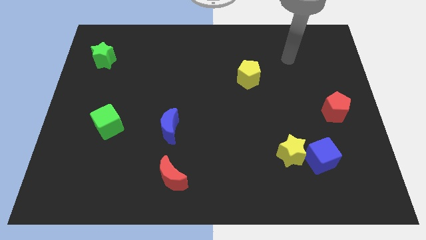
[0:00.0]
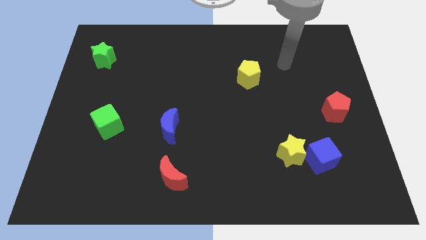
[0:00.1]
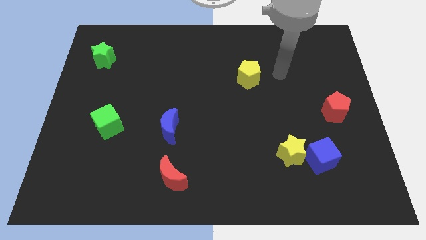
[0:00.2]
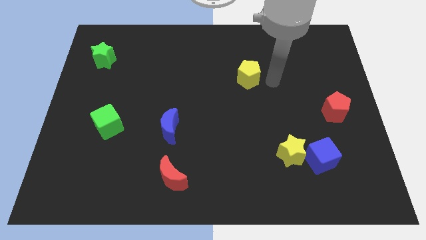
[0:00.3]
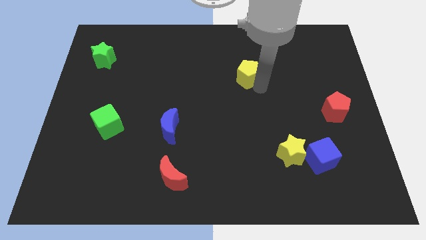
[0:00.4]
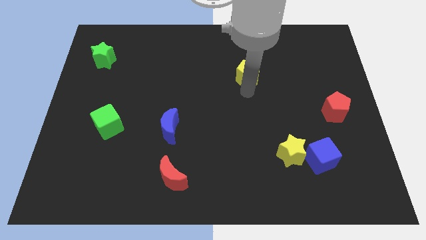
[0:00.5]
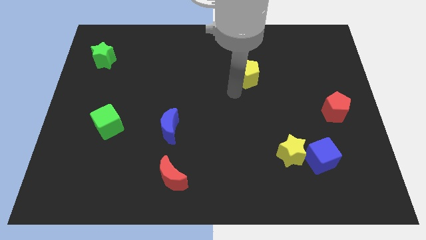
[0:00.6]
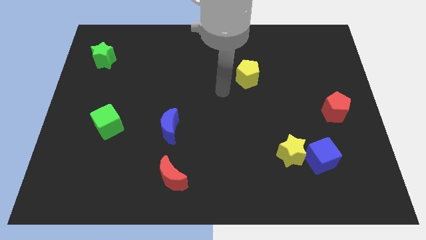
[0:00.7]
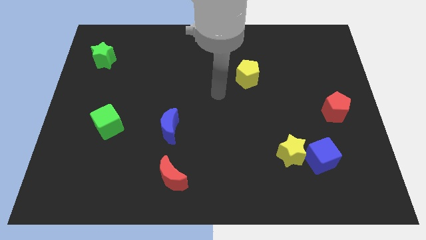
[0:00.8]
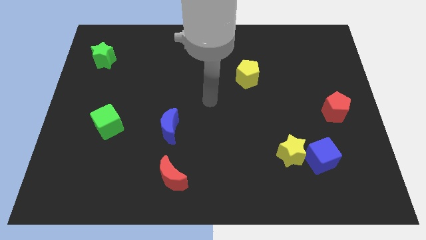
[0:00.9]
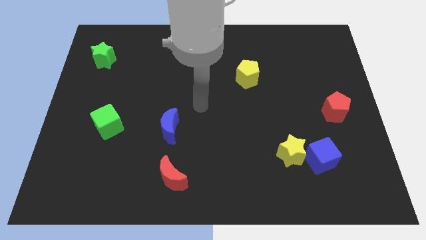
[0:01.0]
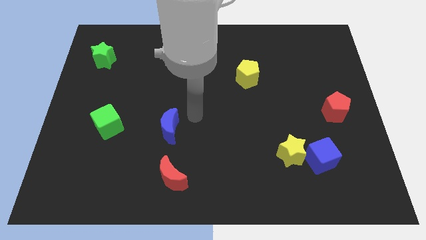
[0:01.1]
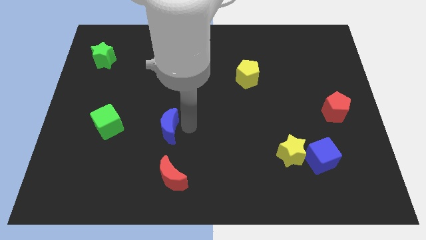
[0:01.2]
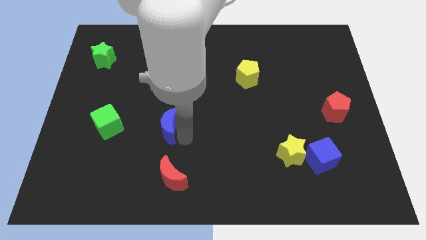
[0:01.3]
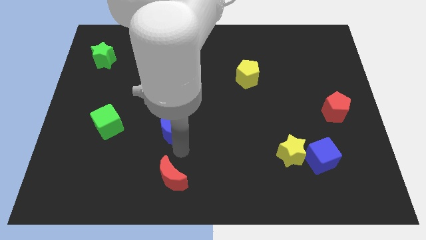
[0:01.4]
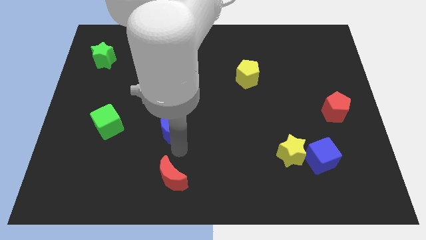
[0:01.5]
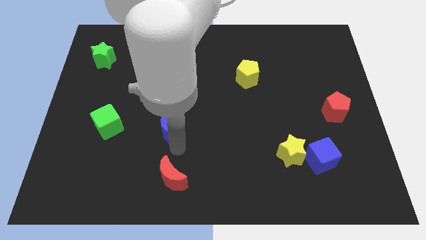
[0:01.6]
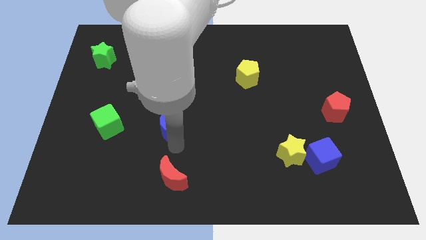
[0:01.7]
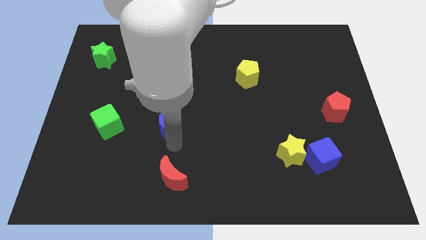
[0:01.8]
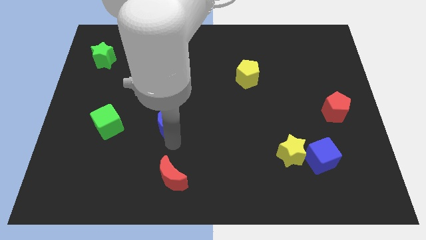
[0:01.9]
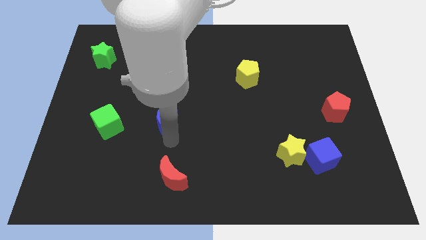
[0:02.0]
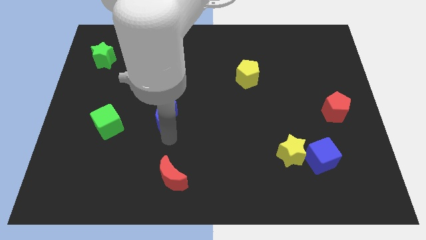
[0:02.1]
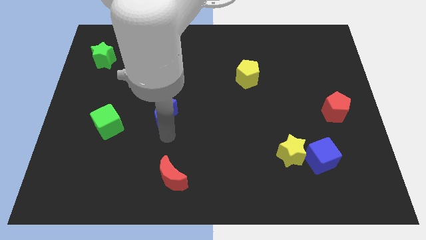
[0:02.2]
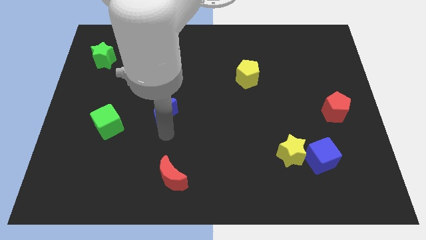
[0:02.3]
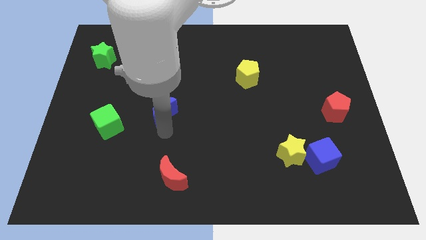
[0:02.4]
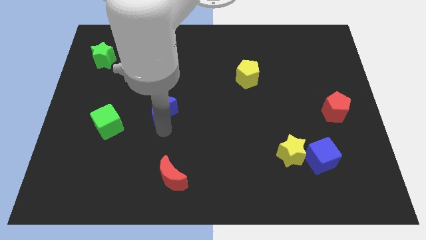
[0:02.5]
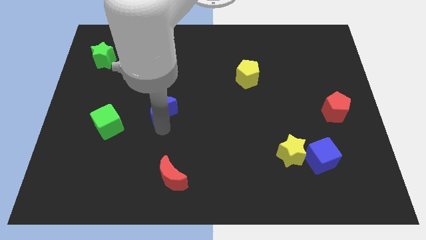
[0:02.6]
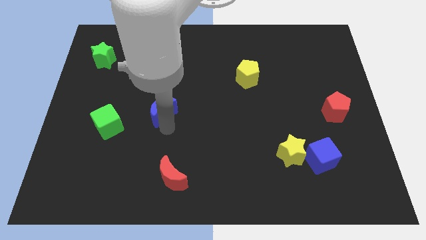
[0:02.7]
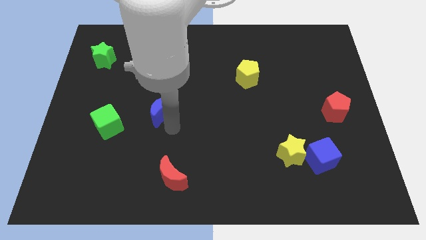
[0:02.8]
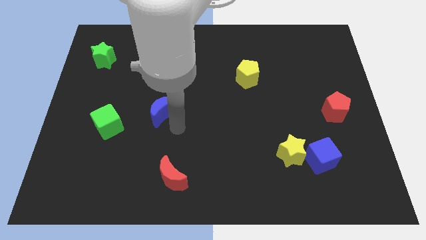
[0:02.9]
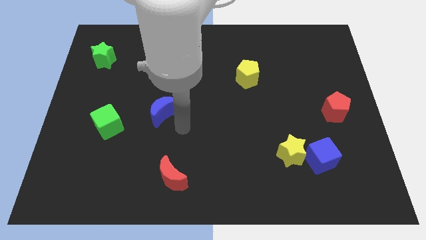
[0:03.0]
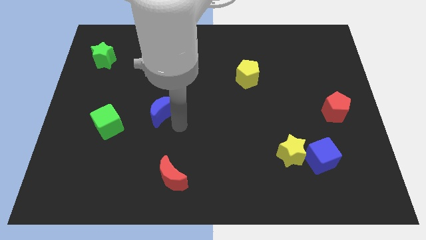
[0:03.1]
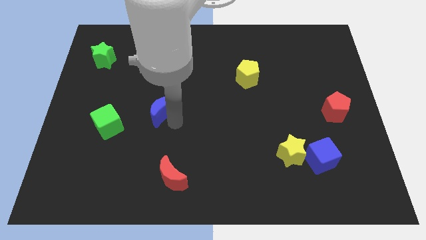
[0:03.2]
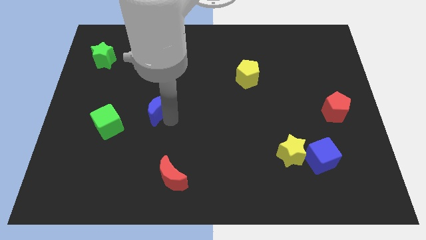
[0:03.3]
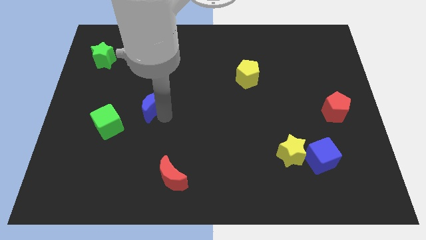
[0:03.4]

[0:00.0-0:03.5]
slightly slide the blue moon up and then to the left

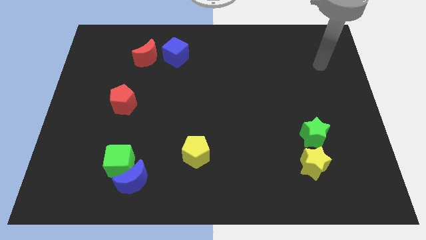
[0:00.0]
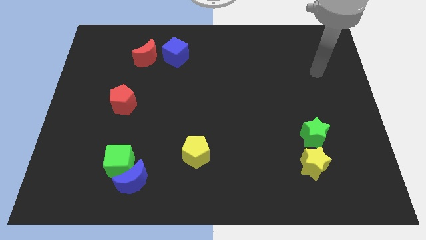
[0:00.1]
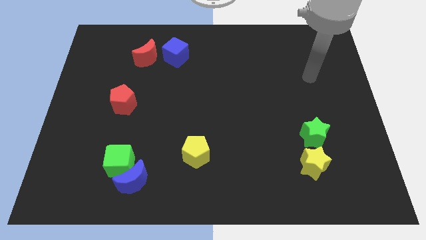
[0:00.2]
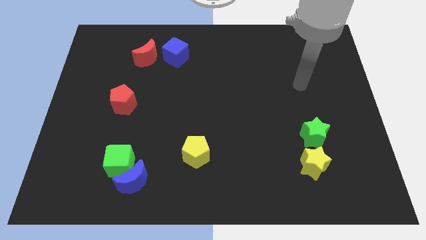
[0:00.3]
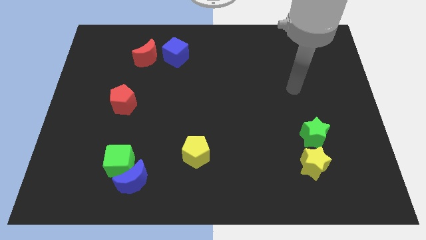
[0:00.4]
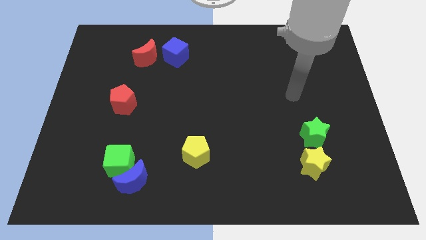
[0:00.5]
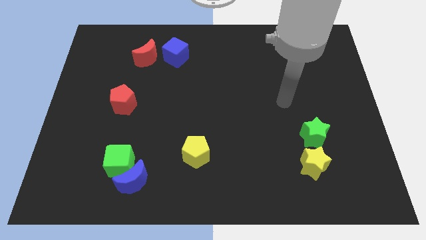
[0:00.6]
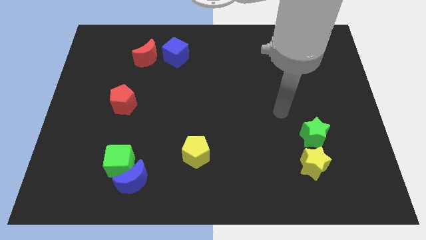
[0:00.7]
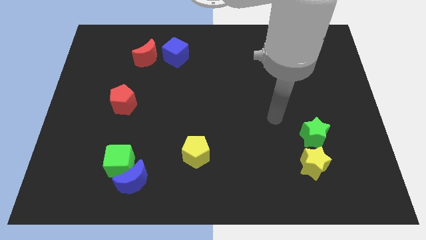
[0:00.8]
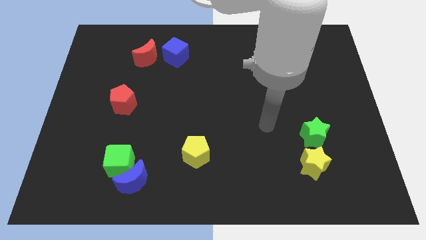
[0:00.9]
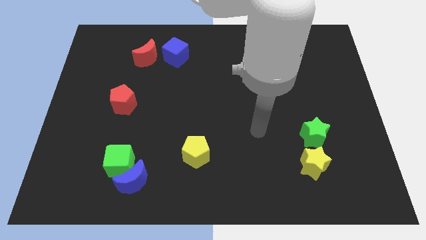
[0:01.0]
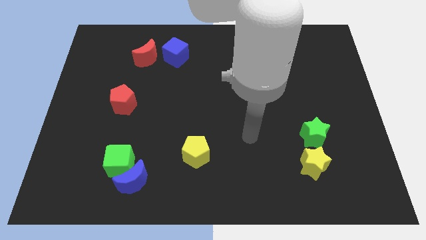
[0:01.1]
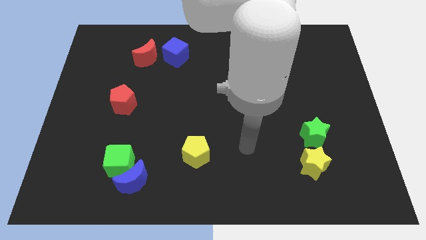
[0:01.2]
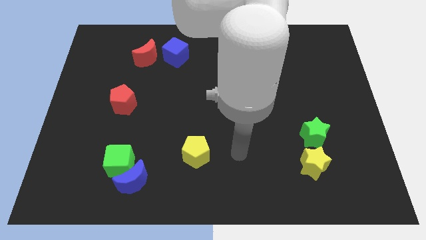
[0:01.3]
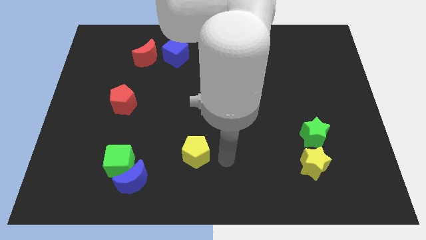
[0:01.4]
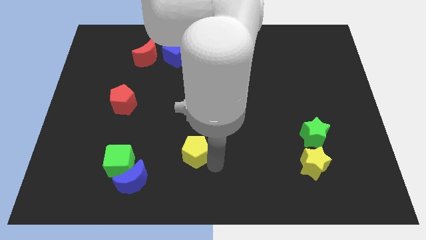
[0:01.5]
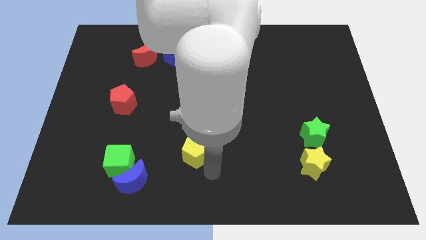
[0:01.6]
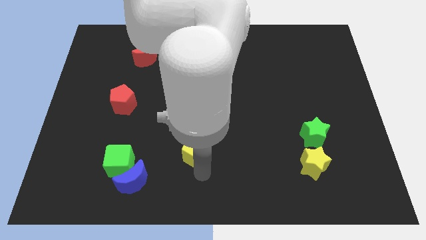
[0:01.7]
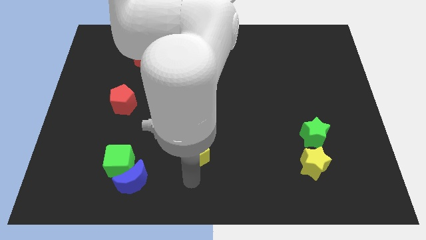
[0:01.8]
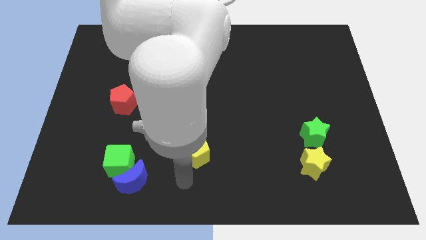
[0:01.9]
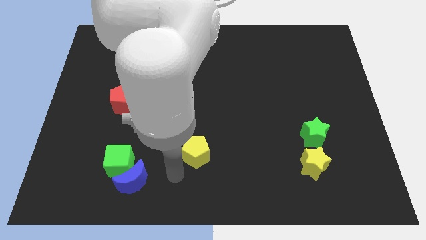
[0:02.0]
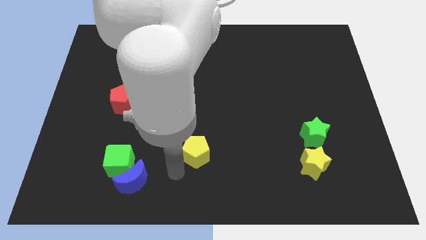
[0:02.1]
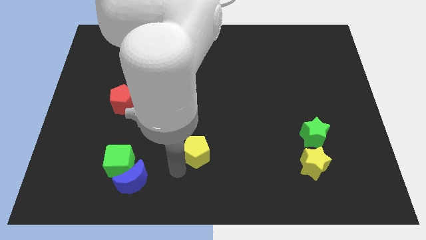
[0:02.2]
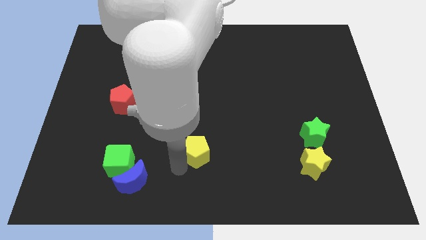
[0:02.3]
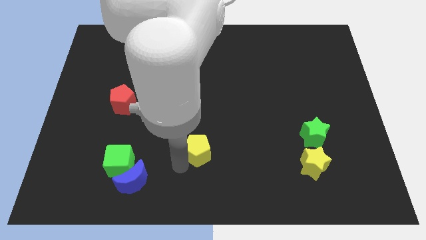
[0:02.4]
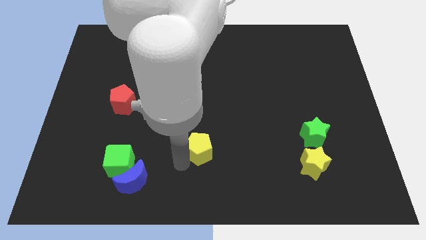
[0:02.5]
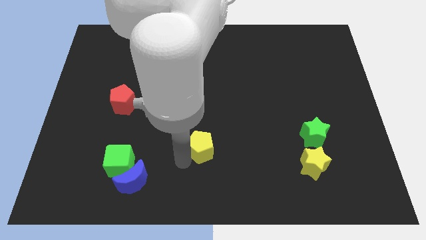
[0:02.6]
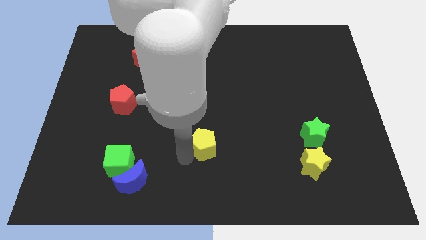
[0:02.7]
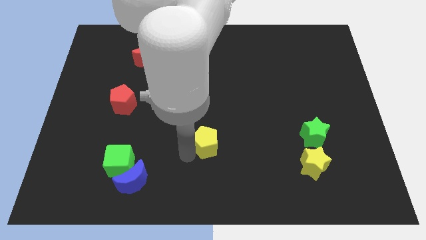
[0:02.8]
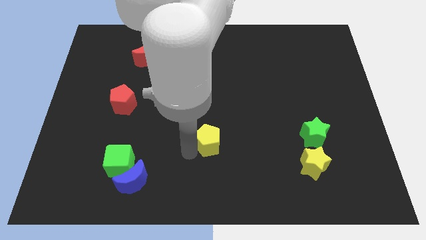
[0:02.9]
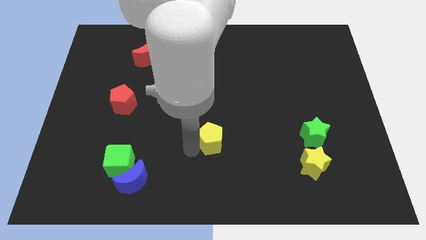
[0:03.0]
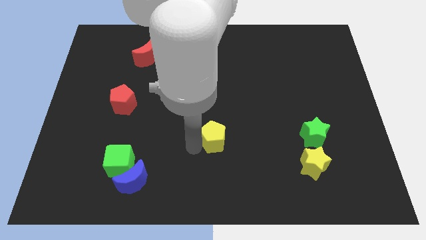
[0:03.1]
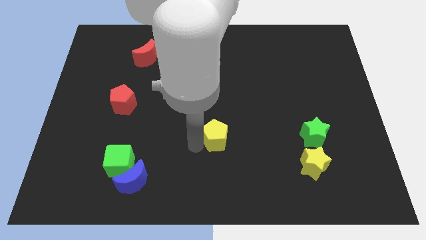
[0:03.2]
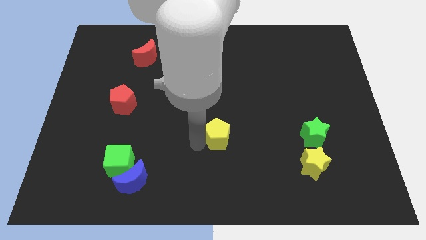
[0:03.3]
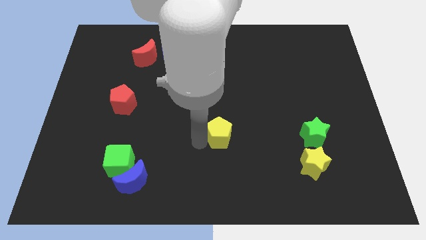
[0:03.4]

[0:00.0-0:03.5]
slightly slide the yellow pentagon diagonally upwards and to the right

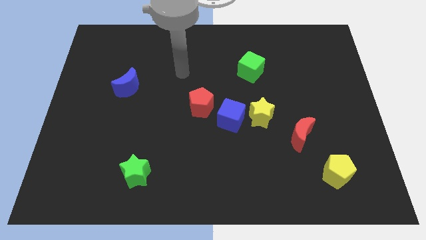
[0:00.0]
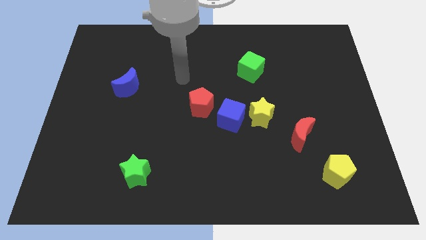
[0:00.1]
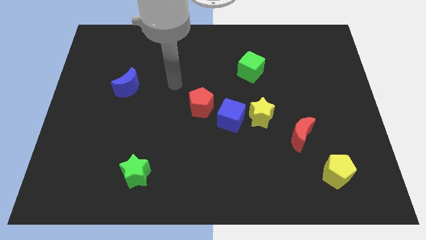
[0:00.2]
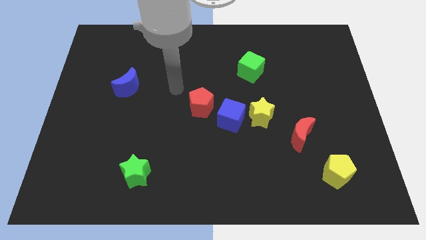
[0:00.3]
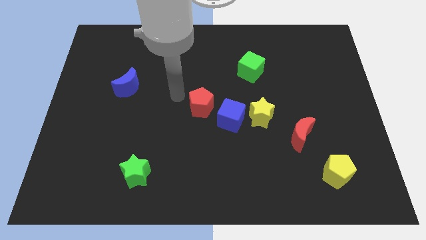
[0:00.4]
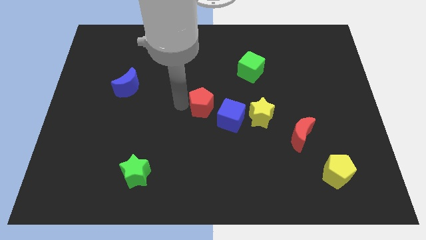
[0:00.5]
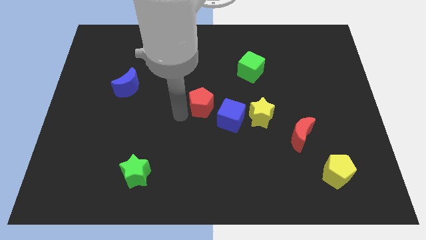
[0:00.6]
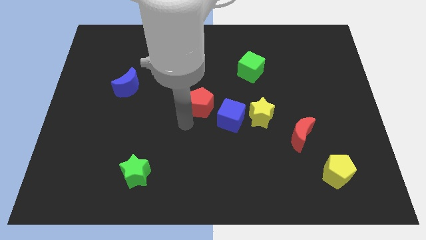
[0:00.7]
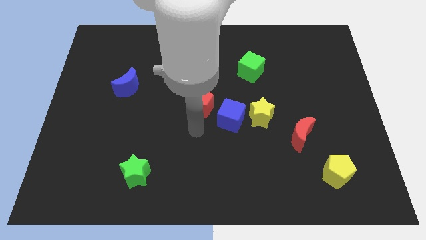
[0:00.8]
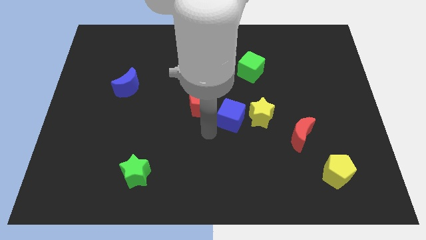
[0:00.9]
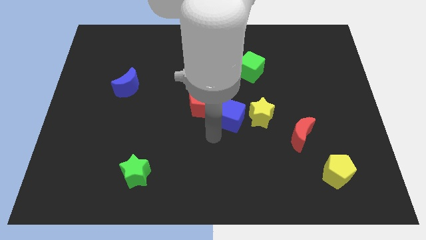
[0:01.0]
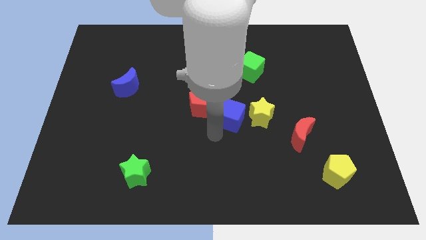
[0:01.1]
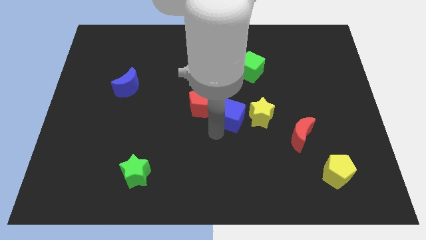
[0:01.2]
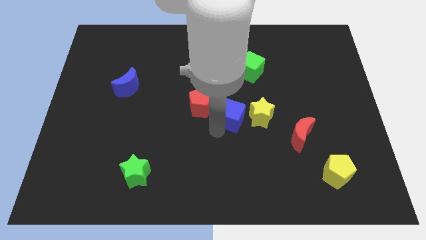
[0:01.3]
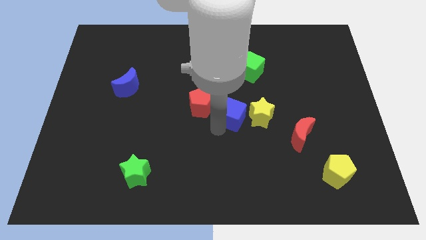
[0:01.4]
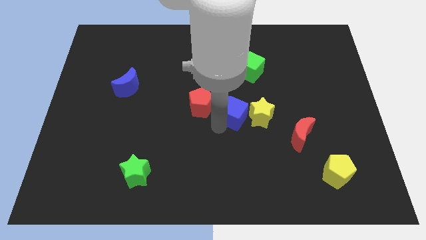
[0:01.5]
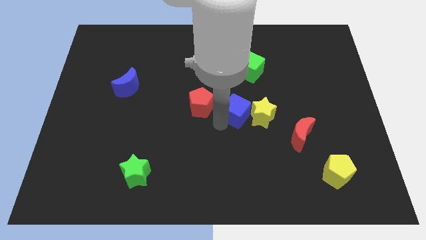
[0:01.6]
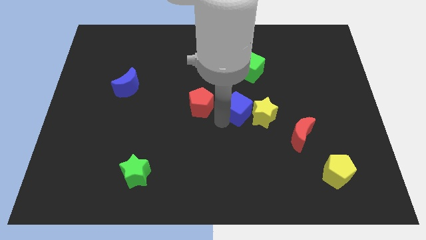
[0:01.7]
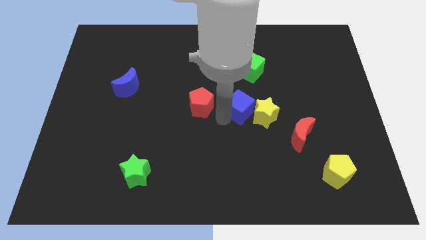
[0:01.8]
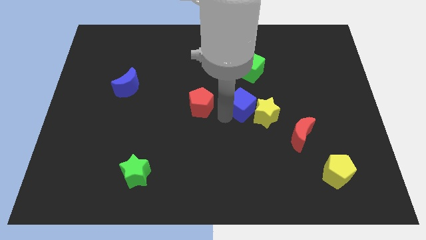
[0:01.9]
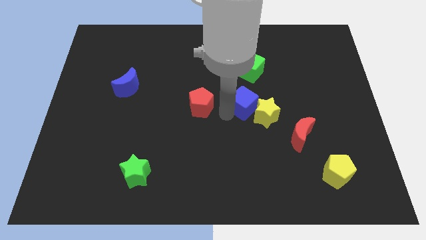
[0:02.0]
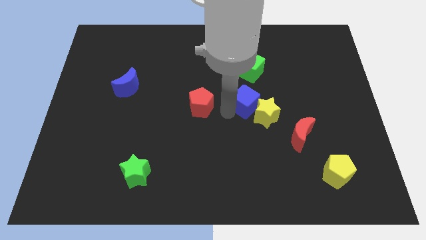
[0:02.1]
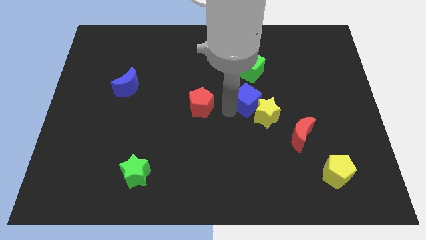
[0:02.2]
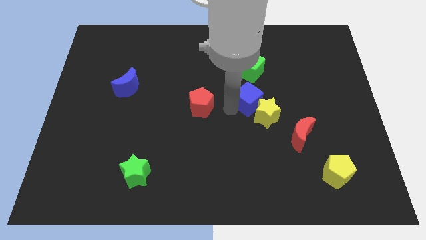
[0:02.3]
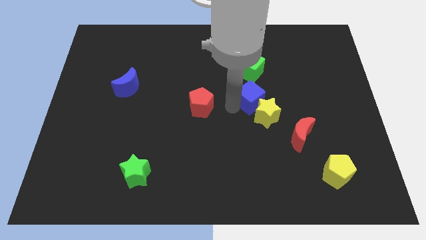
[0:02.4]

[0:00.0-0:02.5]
slightly slide the blue cube upwards and then to the right
